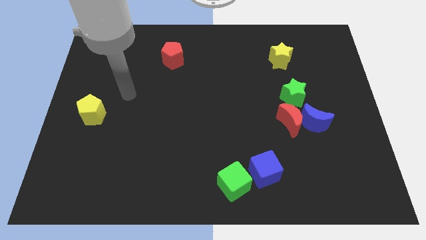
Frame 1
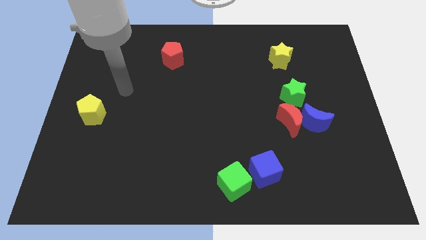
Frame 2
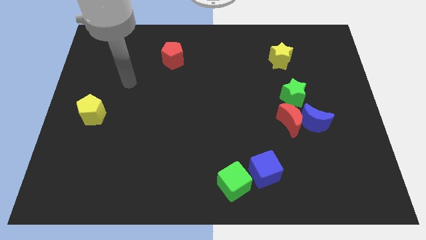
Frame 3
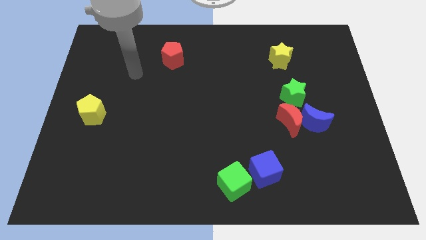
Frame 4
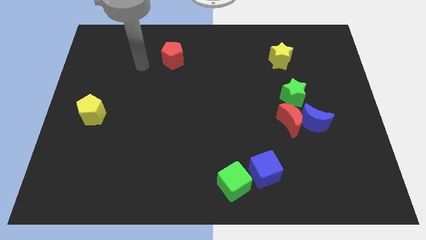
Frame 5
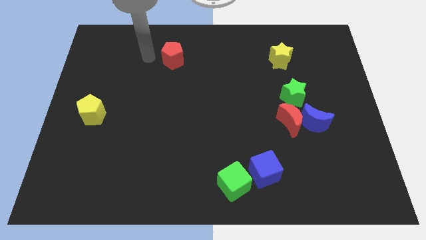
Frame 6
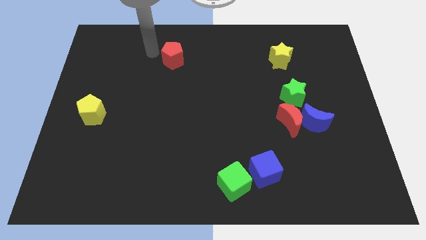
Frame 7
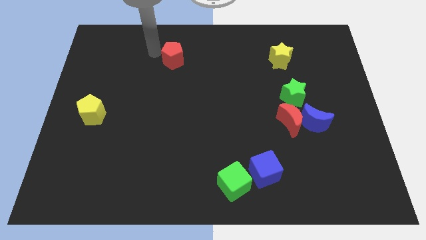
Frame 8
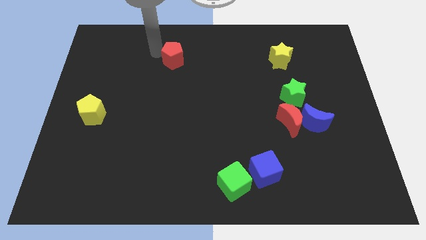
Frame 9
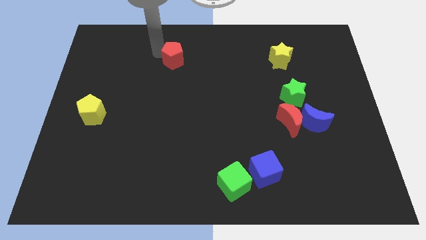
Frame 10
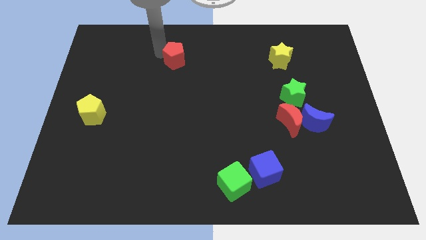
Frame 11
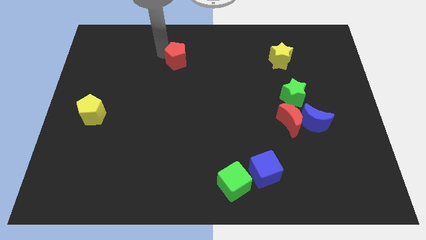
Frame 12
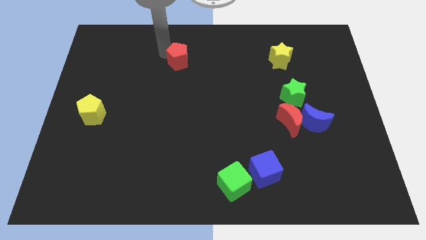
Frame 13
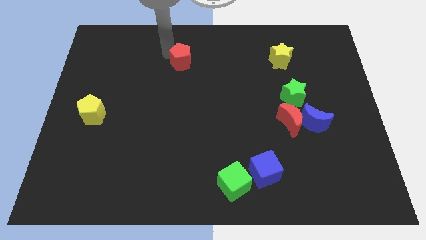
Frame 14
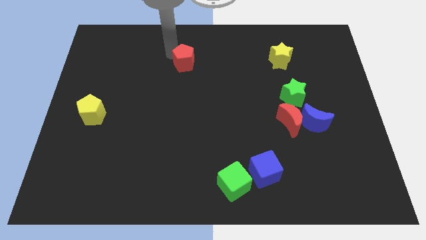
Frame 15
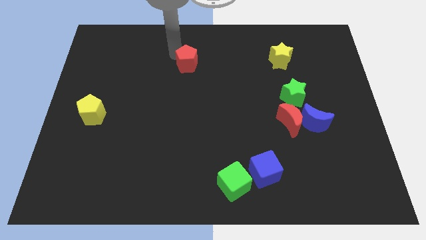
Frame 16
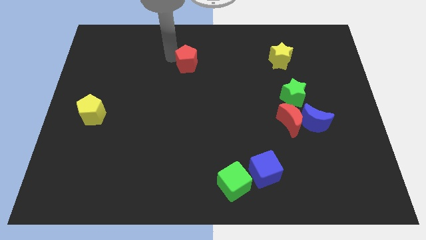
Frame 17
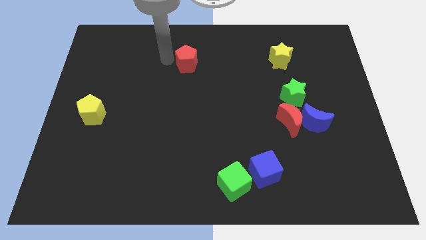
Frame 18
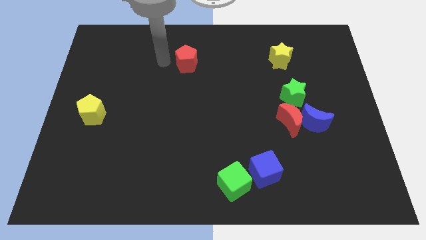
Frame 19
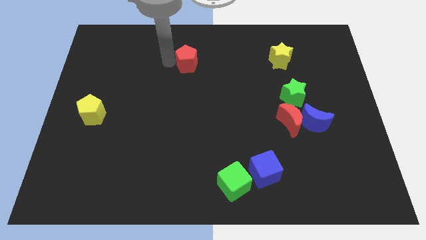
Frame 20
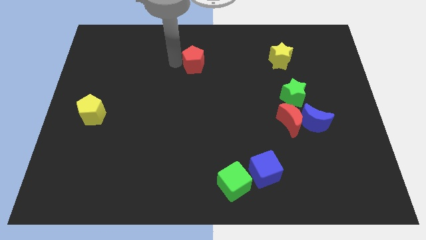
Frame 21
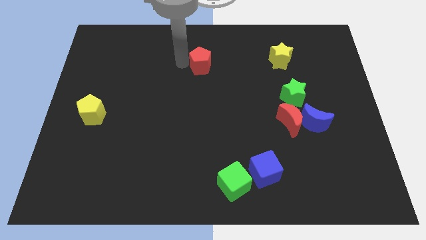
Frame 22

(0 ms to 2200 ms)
slightly push the red pentagon right

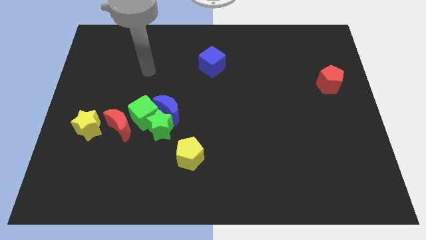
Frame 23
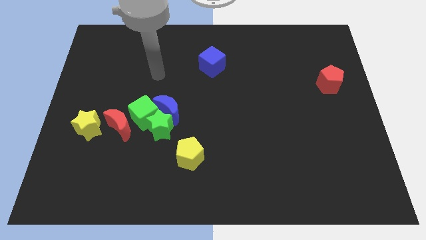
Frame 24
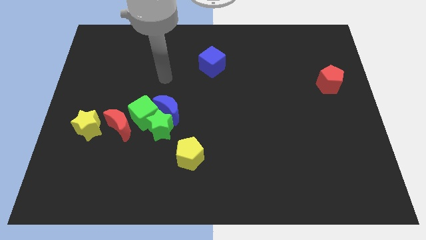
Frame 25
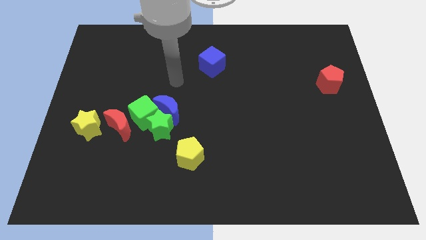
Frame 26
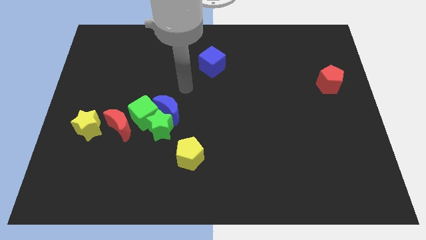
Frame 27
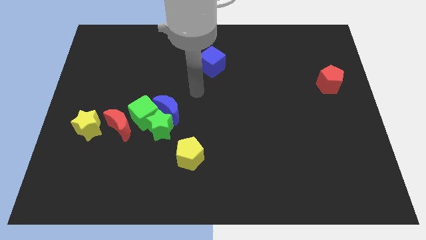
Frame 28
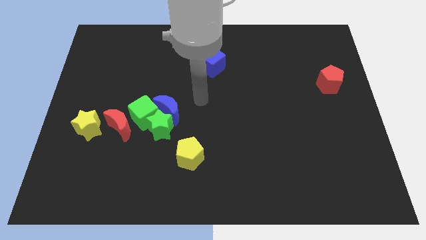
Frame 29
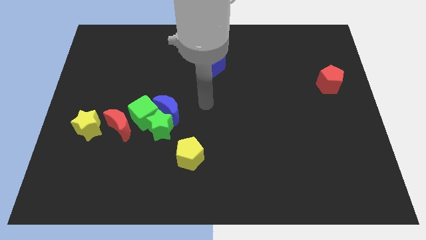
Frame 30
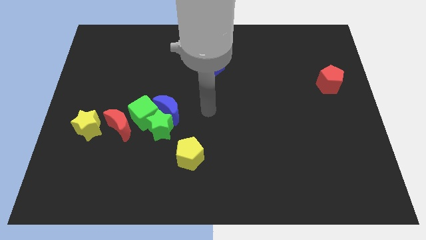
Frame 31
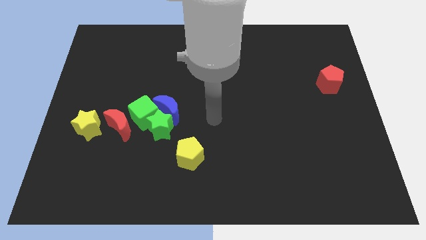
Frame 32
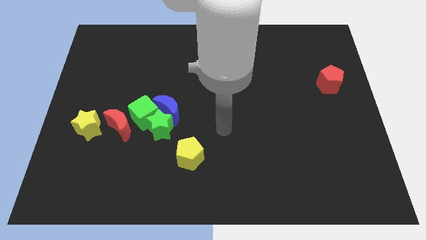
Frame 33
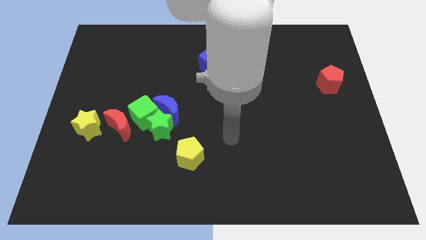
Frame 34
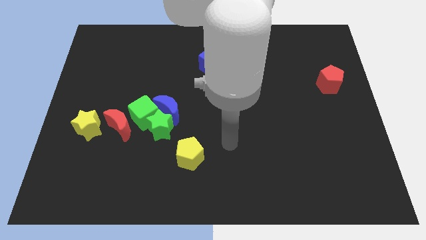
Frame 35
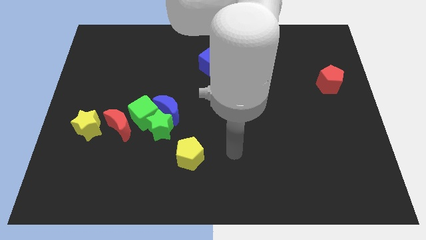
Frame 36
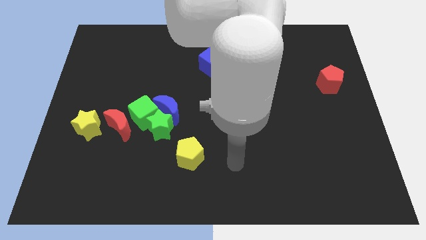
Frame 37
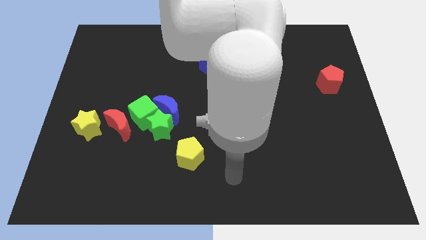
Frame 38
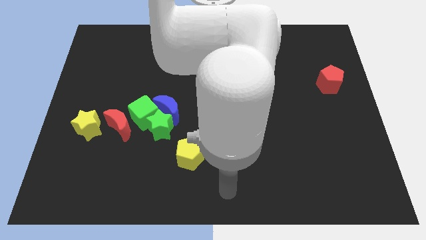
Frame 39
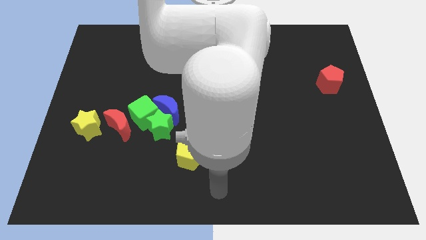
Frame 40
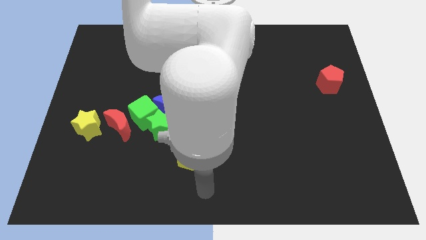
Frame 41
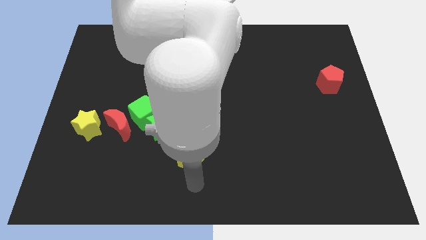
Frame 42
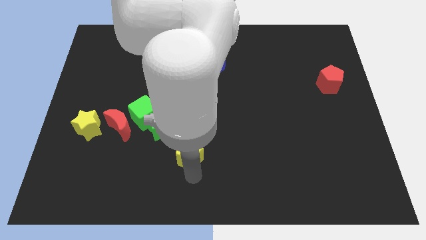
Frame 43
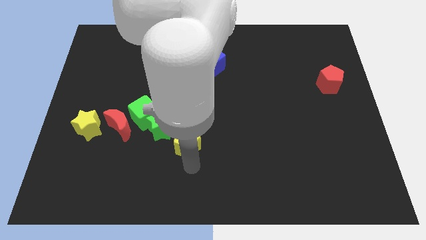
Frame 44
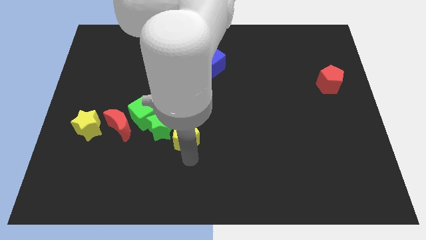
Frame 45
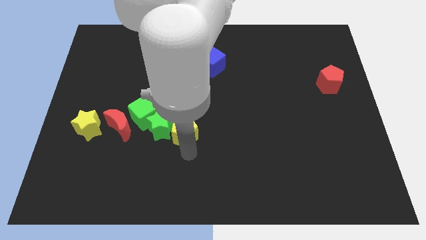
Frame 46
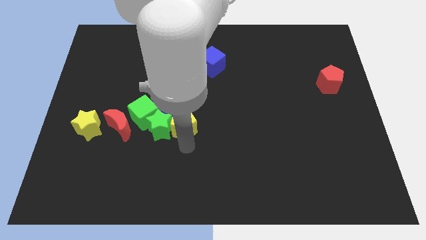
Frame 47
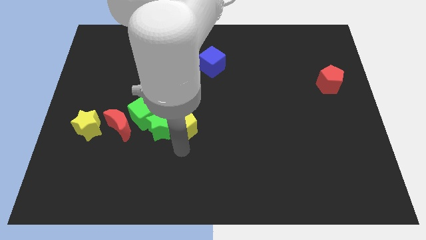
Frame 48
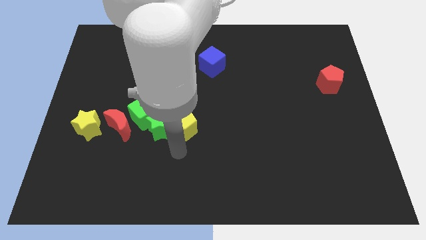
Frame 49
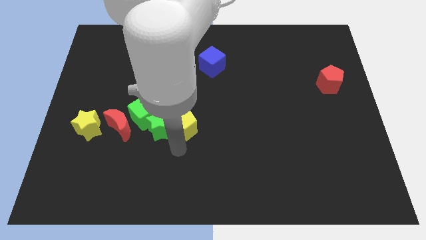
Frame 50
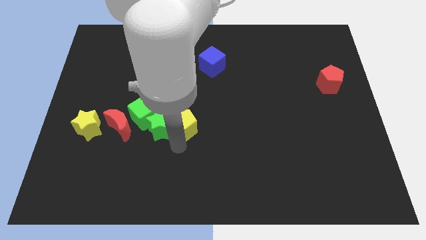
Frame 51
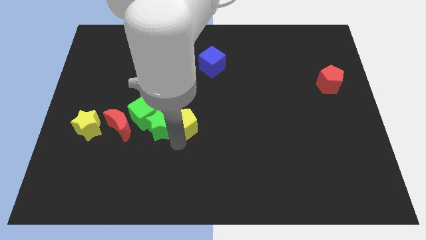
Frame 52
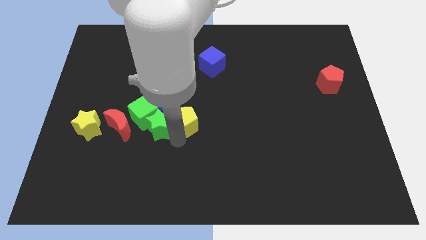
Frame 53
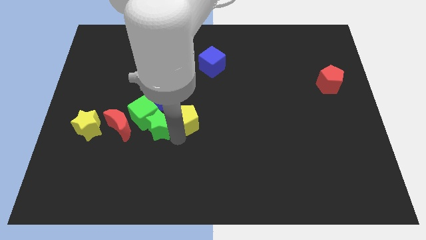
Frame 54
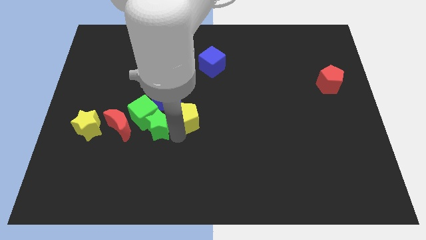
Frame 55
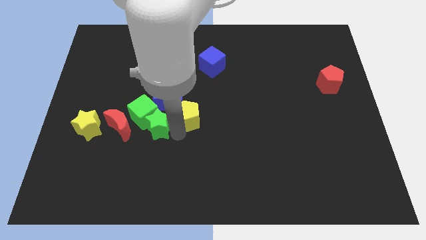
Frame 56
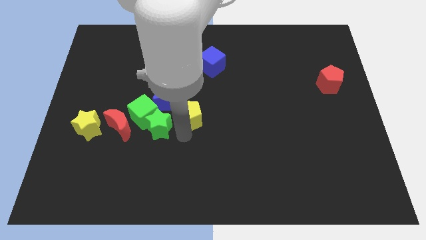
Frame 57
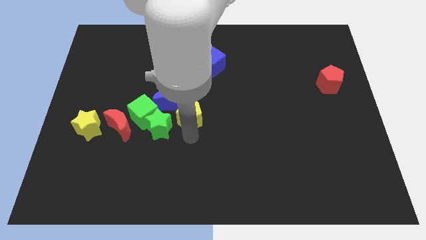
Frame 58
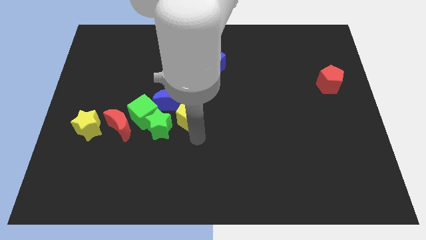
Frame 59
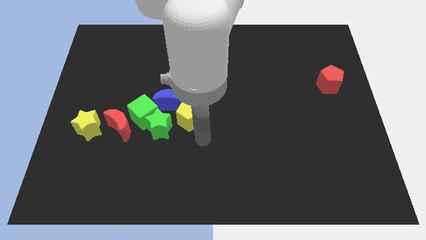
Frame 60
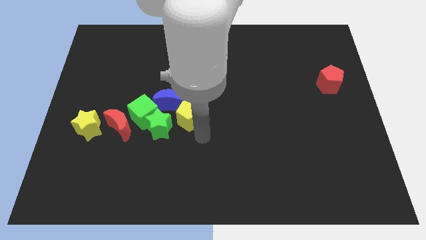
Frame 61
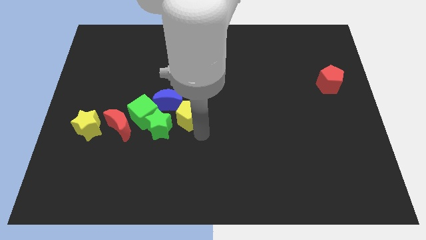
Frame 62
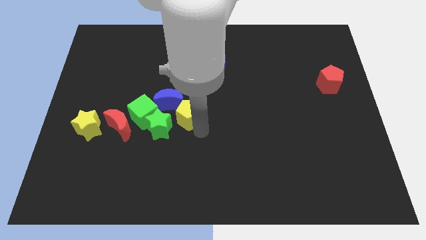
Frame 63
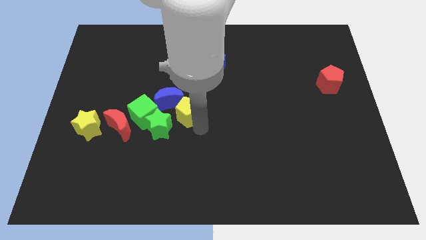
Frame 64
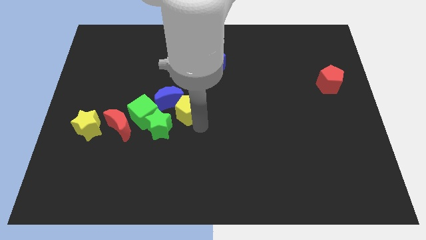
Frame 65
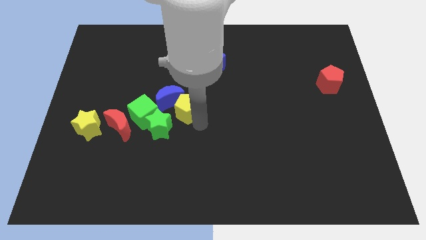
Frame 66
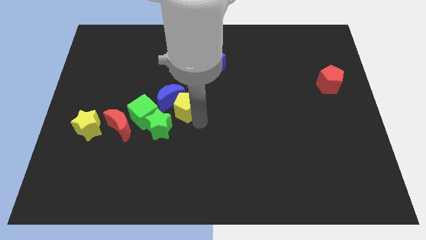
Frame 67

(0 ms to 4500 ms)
slightly push the yellow pentagon diagonally upwards and left

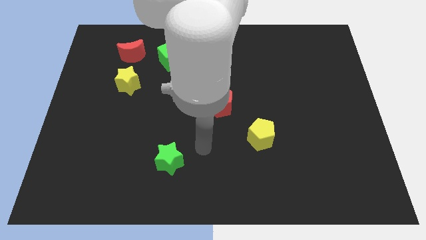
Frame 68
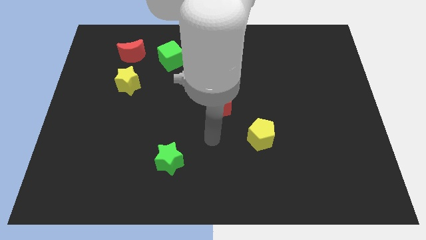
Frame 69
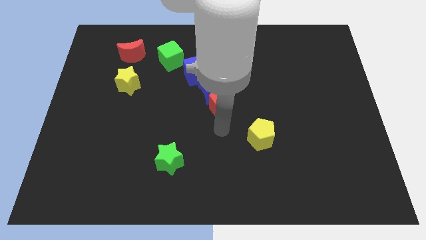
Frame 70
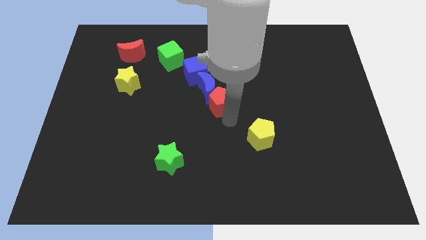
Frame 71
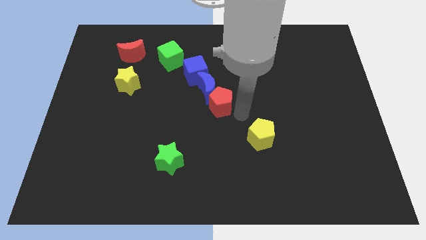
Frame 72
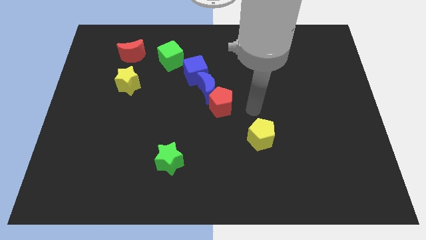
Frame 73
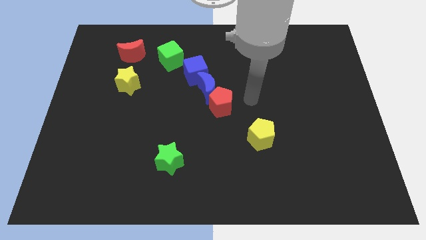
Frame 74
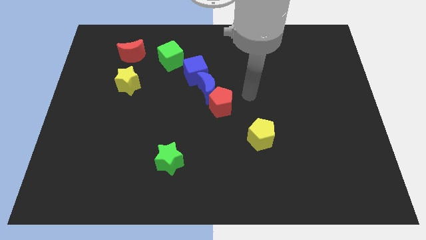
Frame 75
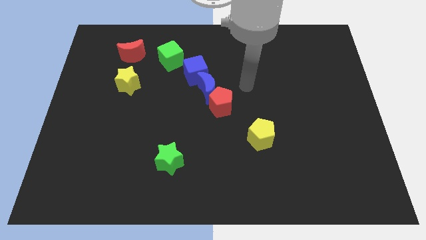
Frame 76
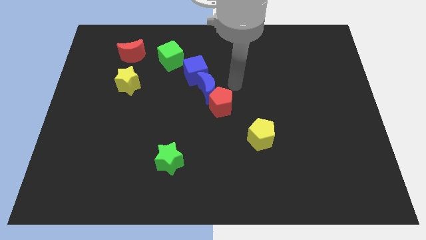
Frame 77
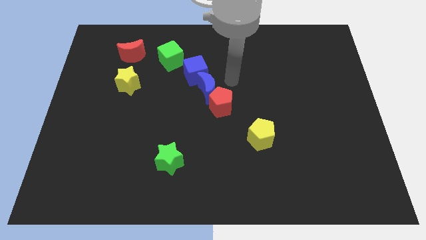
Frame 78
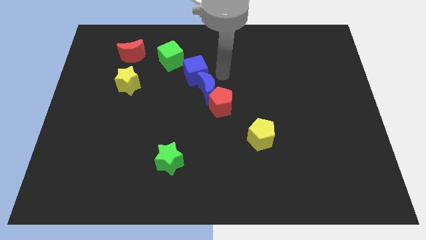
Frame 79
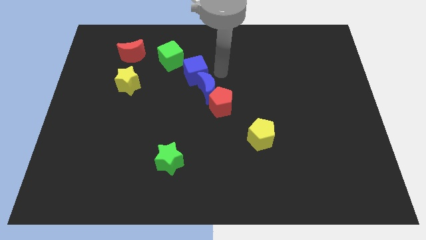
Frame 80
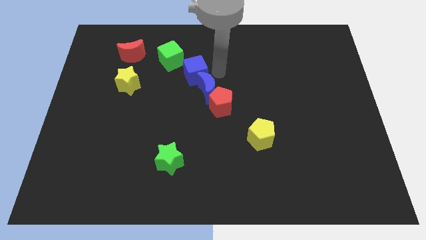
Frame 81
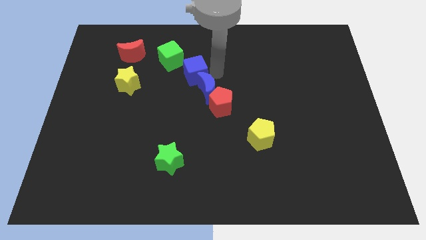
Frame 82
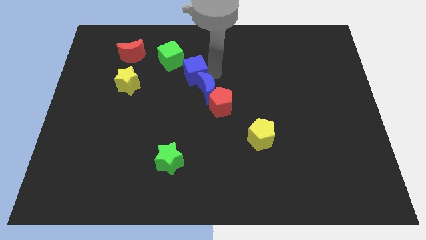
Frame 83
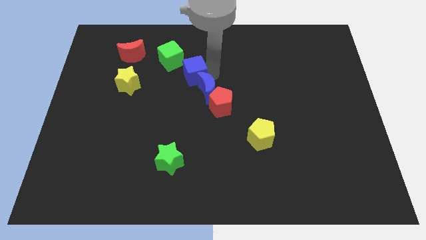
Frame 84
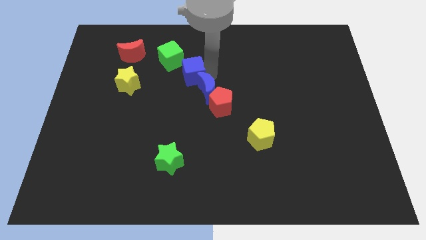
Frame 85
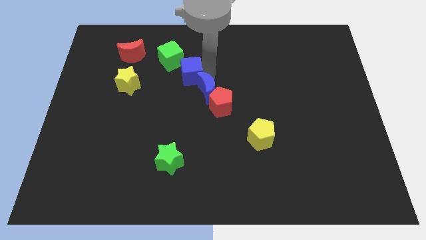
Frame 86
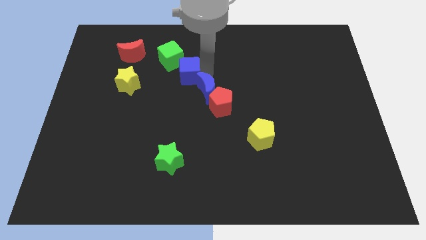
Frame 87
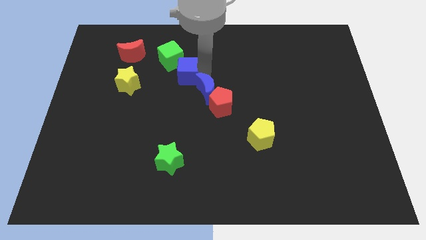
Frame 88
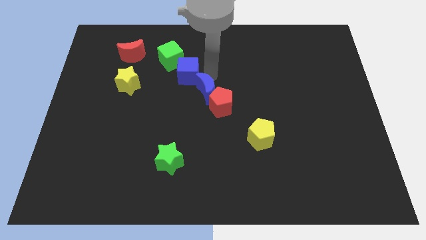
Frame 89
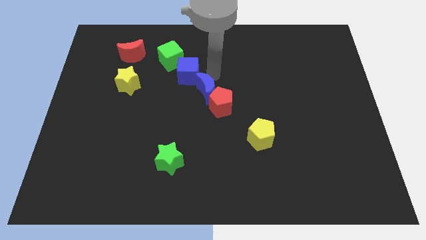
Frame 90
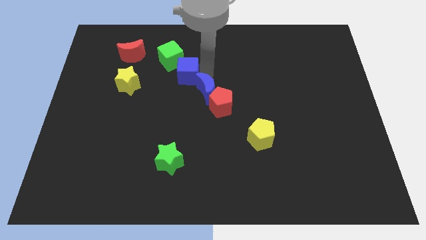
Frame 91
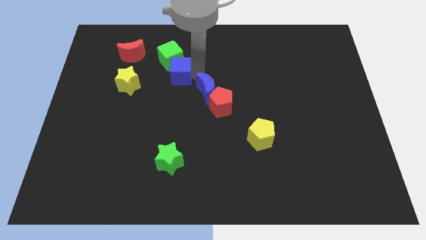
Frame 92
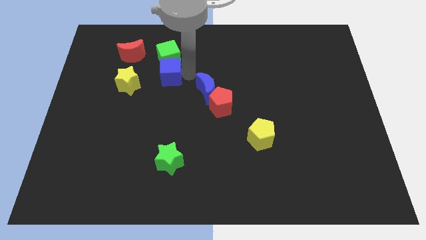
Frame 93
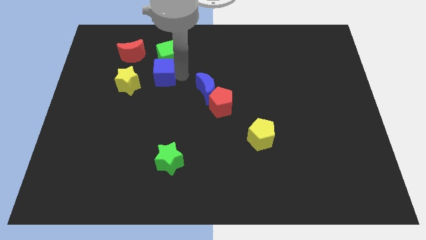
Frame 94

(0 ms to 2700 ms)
slide the blue cube left a little bit
